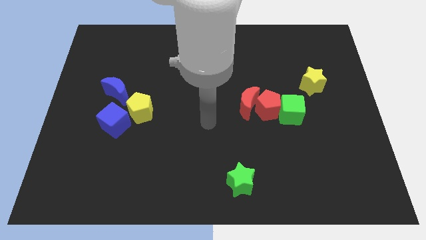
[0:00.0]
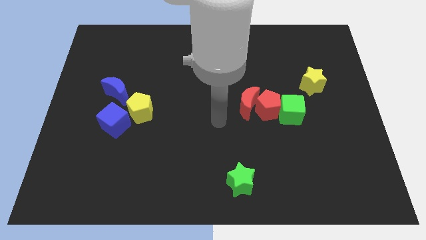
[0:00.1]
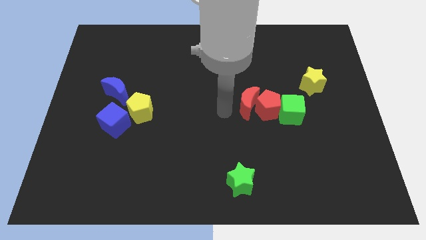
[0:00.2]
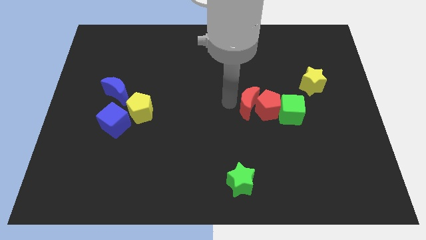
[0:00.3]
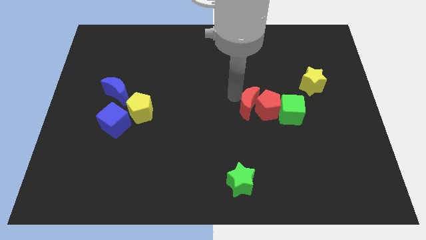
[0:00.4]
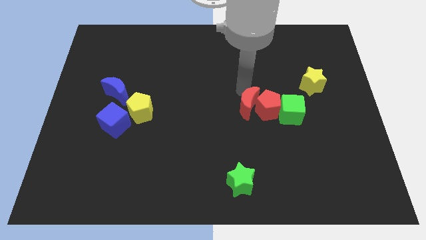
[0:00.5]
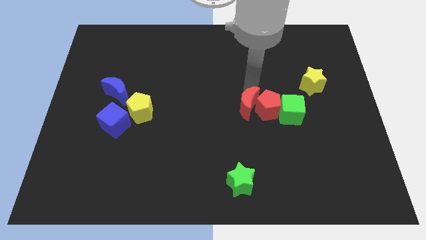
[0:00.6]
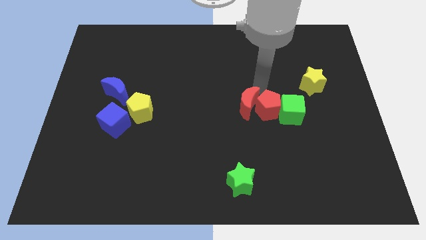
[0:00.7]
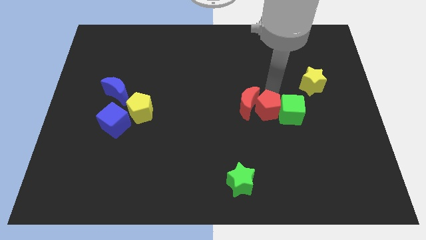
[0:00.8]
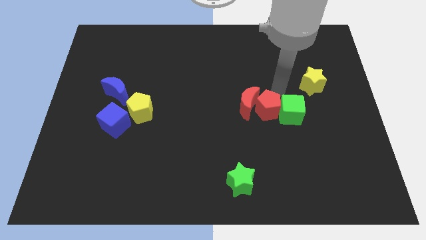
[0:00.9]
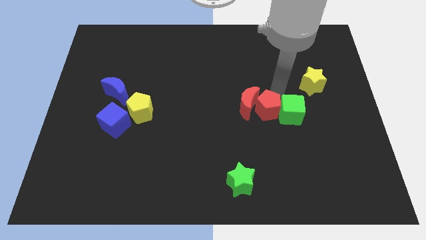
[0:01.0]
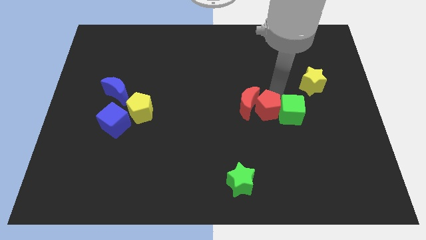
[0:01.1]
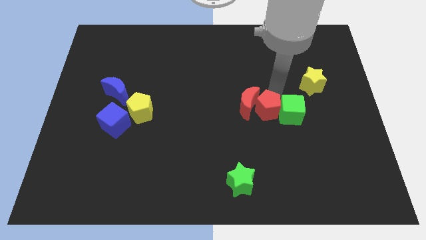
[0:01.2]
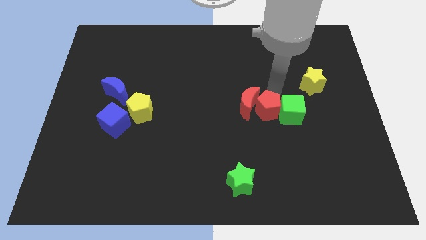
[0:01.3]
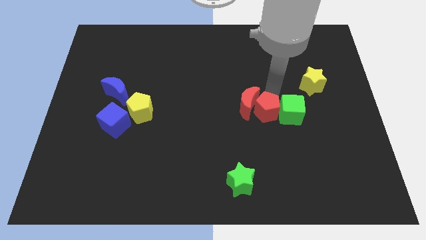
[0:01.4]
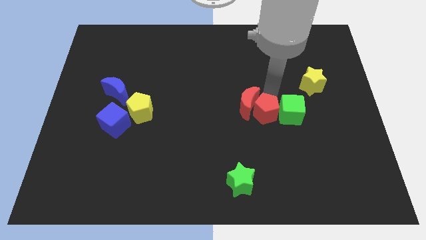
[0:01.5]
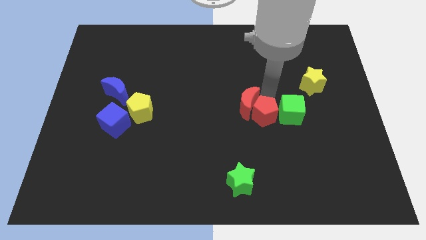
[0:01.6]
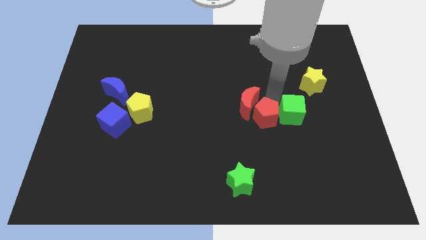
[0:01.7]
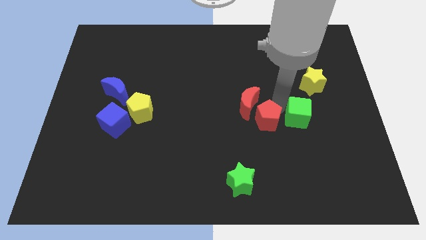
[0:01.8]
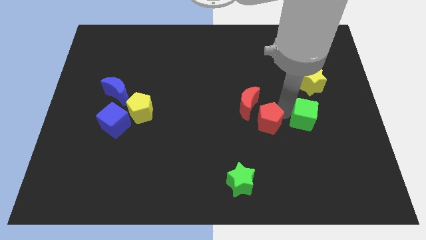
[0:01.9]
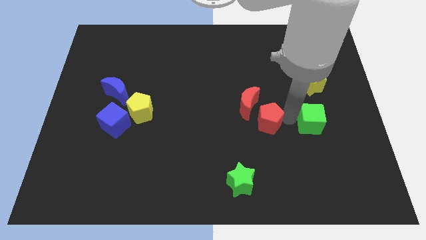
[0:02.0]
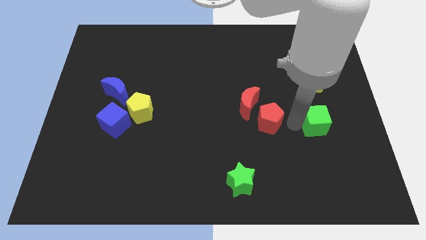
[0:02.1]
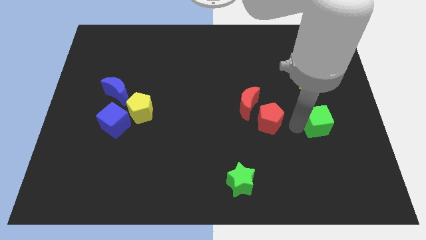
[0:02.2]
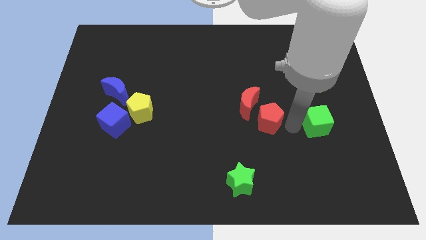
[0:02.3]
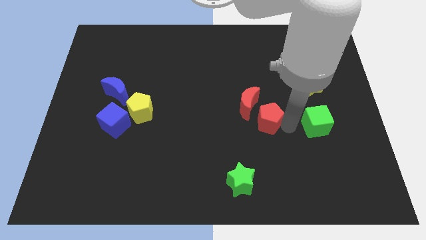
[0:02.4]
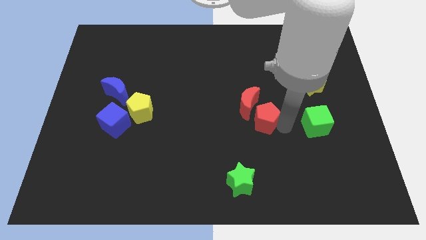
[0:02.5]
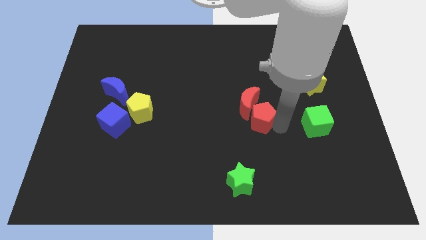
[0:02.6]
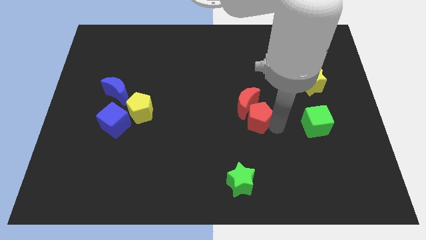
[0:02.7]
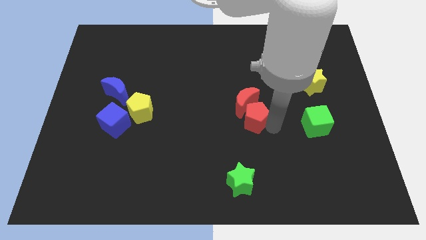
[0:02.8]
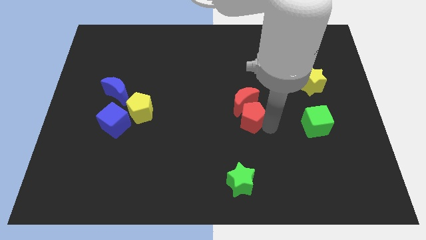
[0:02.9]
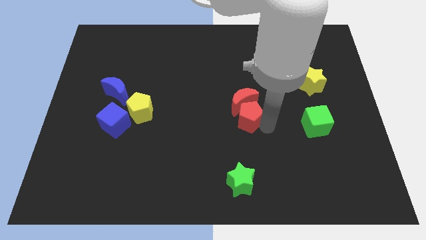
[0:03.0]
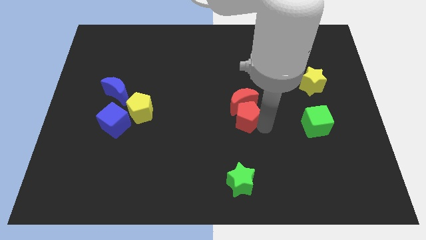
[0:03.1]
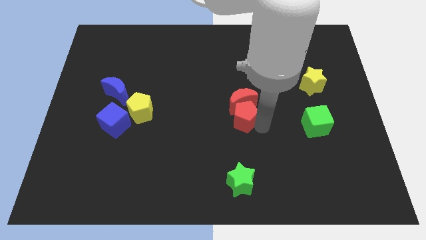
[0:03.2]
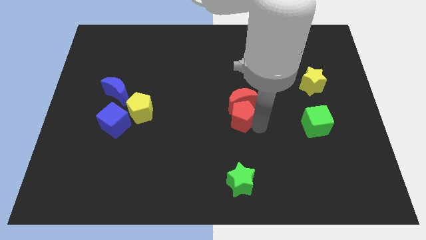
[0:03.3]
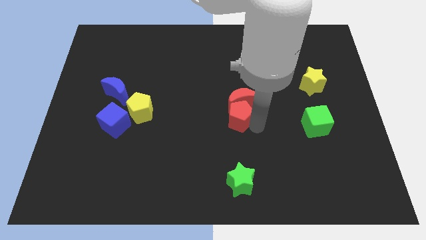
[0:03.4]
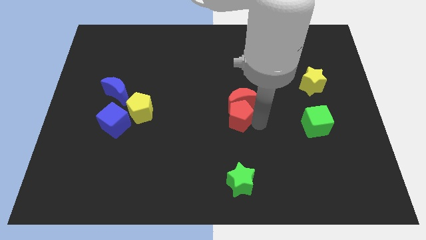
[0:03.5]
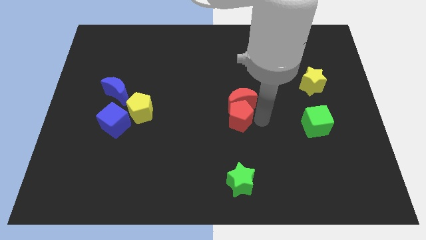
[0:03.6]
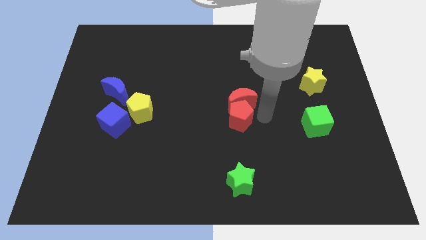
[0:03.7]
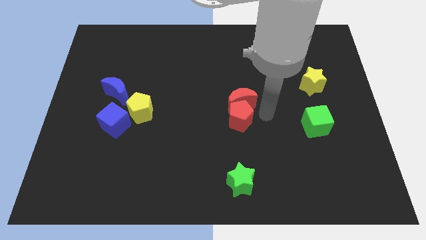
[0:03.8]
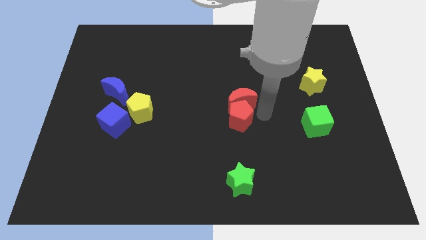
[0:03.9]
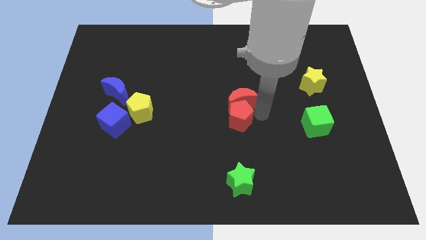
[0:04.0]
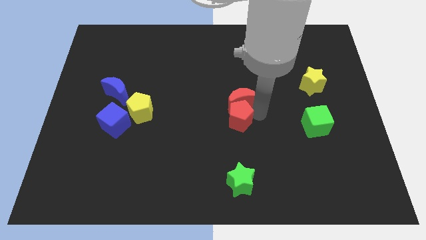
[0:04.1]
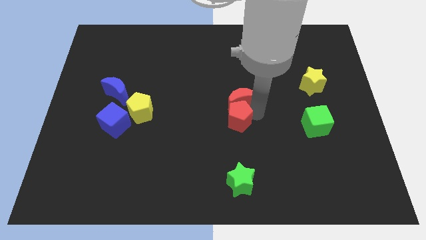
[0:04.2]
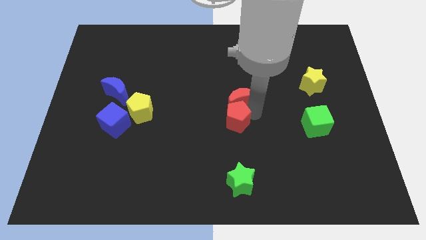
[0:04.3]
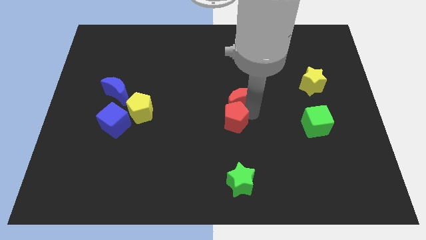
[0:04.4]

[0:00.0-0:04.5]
pull the red pentagon apart from the red moon and green cube

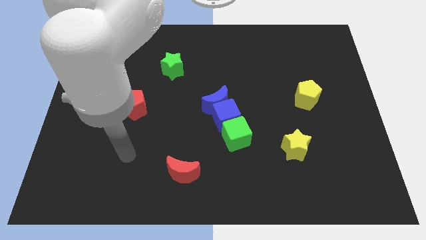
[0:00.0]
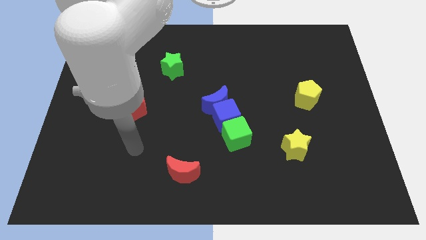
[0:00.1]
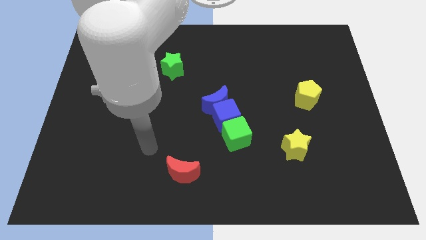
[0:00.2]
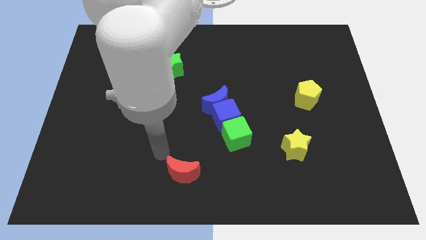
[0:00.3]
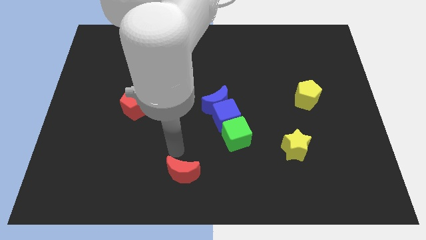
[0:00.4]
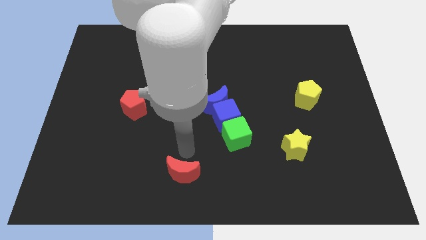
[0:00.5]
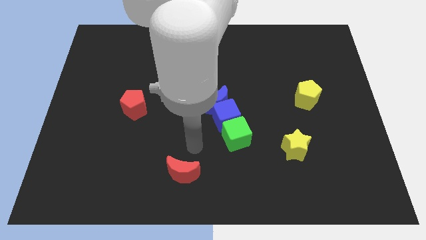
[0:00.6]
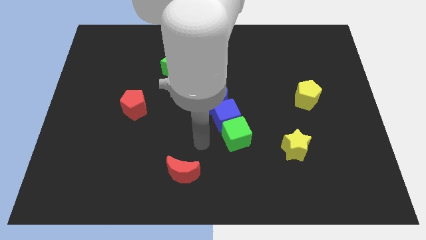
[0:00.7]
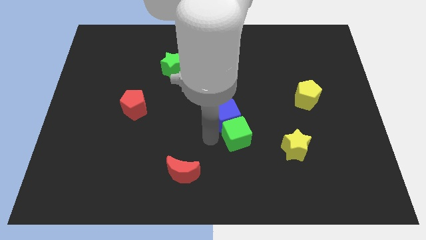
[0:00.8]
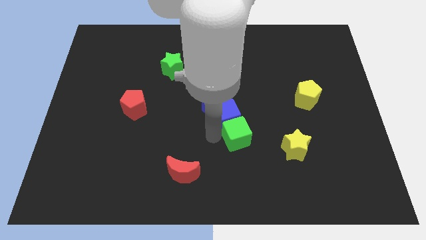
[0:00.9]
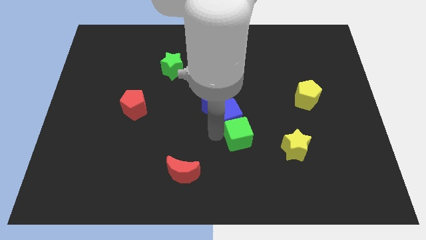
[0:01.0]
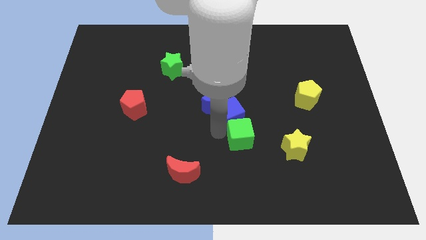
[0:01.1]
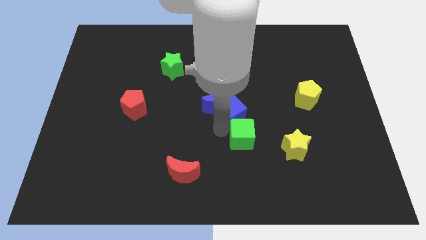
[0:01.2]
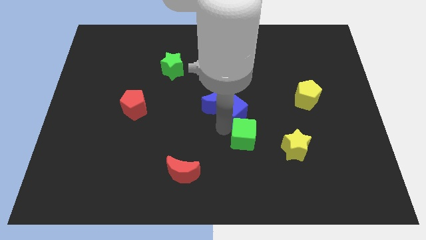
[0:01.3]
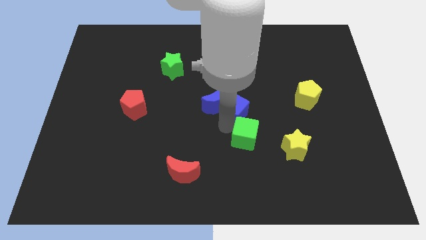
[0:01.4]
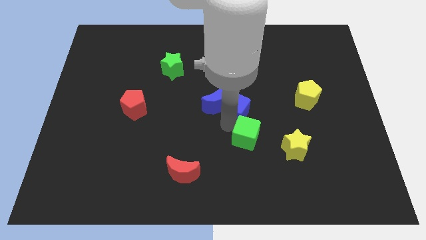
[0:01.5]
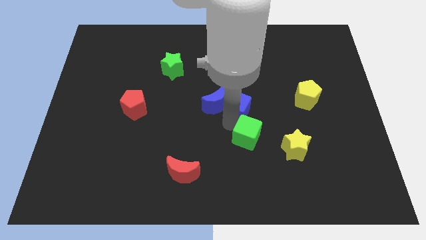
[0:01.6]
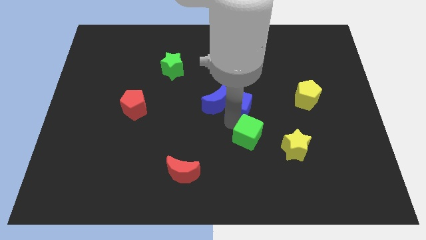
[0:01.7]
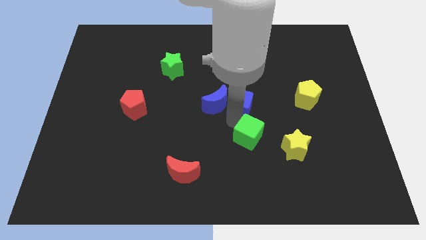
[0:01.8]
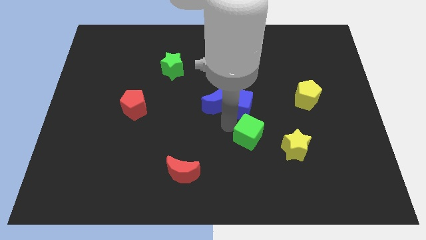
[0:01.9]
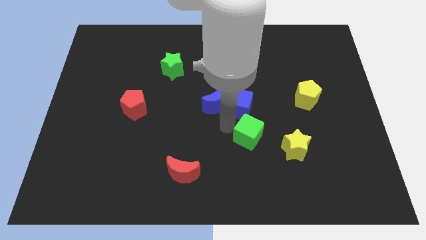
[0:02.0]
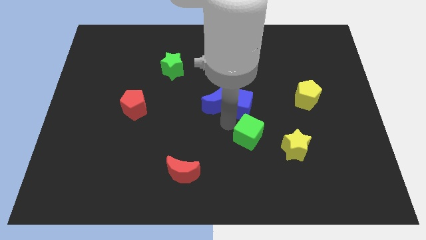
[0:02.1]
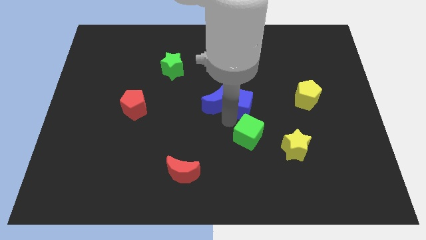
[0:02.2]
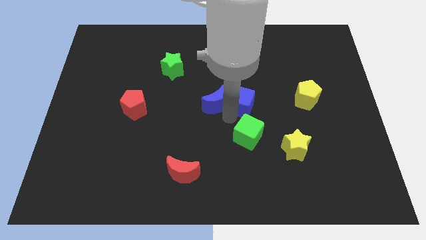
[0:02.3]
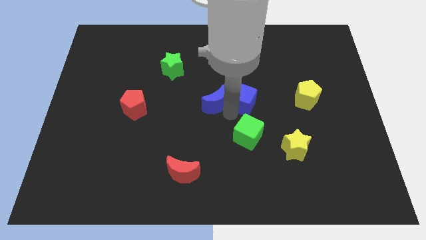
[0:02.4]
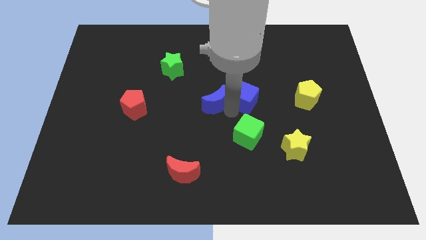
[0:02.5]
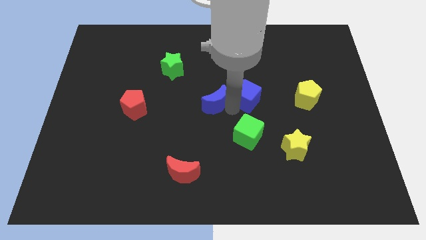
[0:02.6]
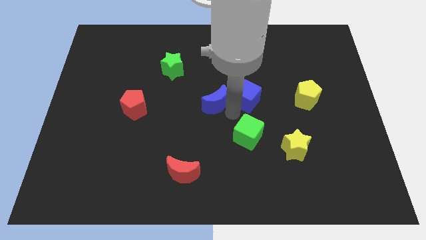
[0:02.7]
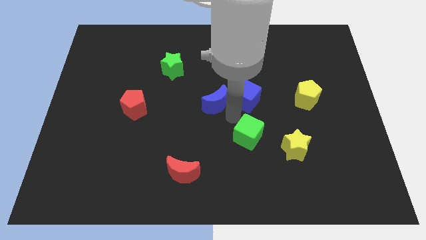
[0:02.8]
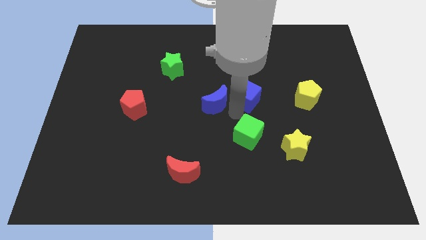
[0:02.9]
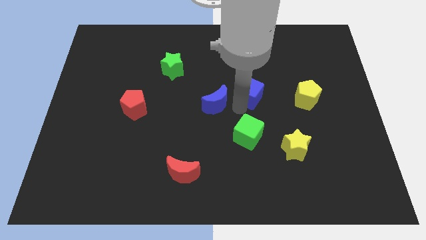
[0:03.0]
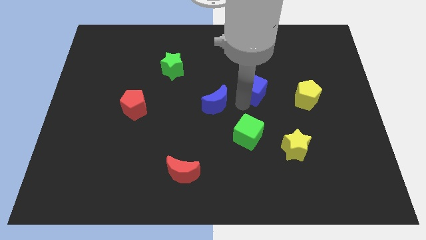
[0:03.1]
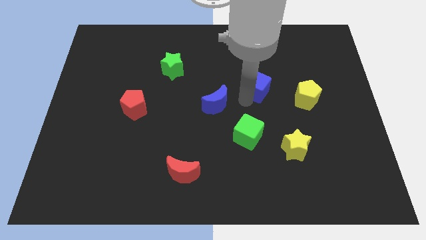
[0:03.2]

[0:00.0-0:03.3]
separate the blue cube from the blue moon and green cube

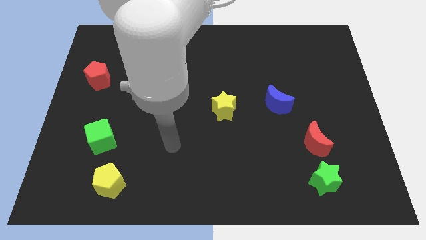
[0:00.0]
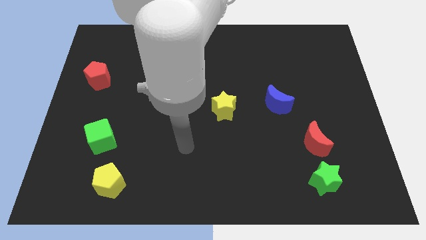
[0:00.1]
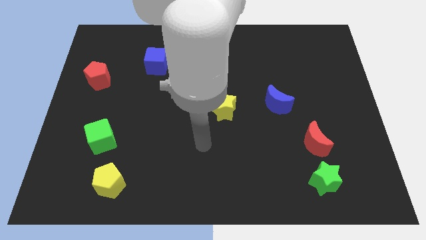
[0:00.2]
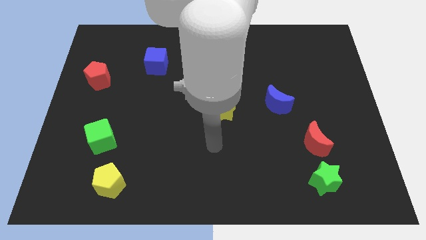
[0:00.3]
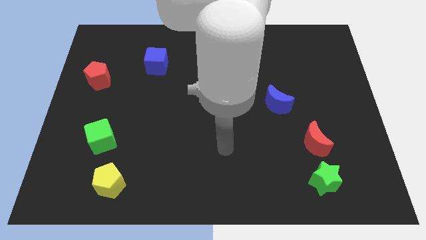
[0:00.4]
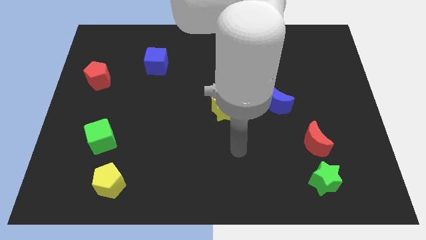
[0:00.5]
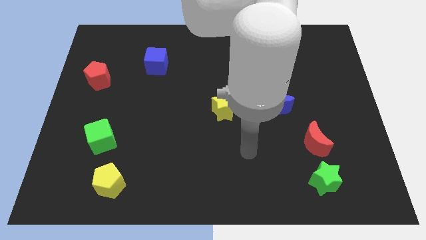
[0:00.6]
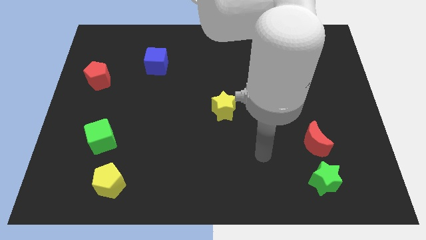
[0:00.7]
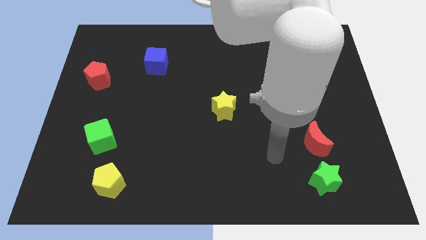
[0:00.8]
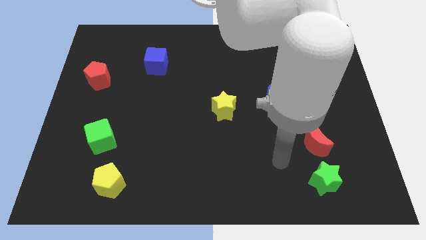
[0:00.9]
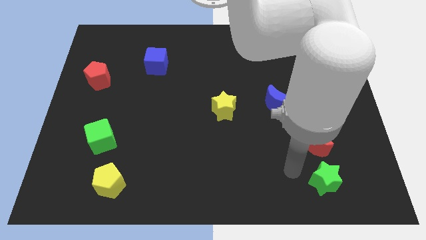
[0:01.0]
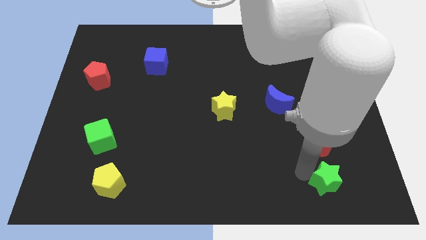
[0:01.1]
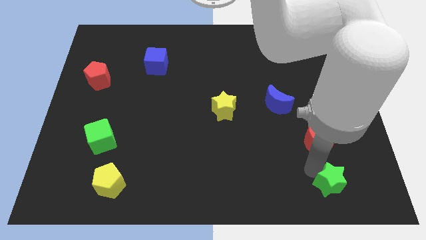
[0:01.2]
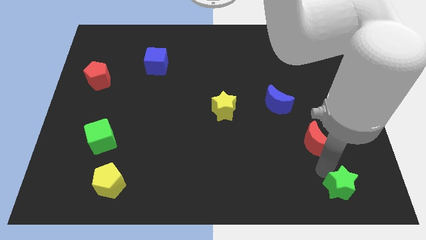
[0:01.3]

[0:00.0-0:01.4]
move the red moon away from the green star

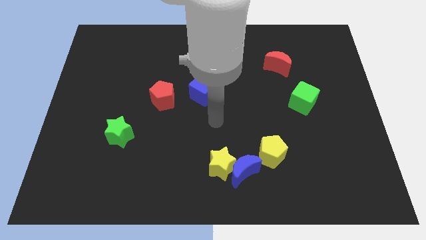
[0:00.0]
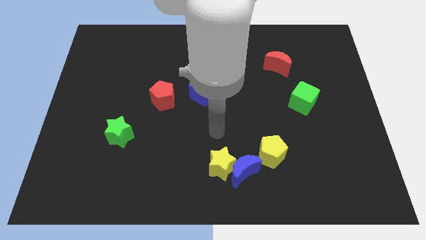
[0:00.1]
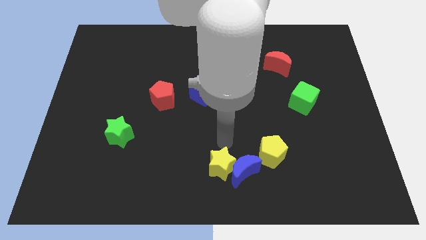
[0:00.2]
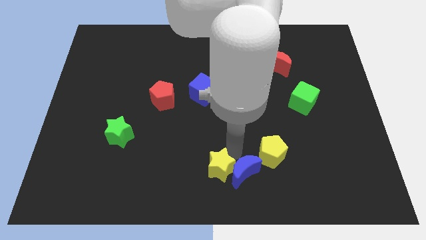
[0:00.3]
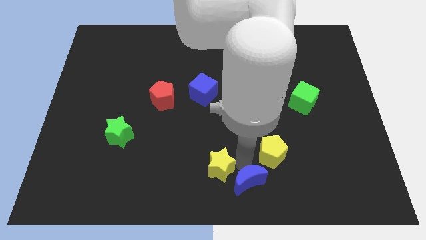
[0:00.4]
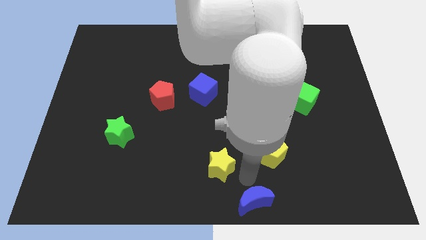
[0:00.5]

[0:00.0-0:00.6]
pull the yellow star apart from the blue moon
